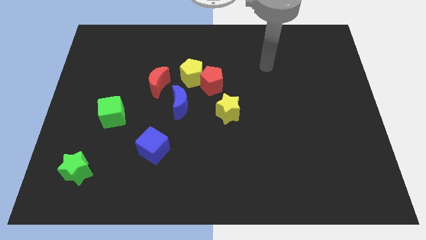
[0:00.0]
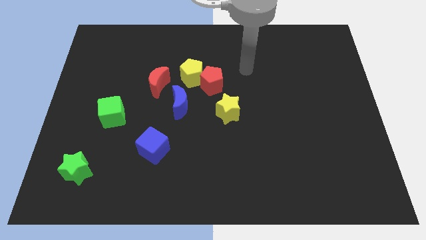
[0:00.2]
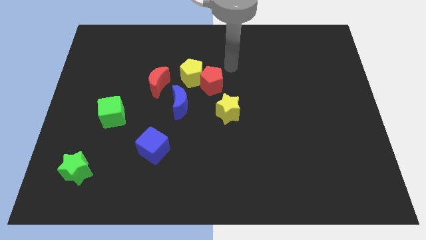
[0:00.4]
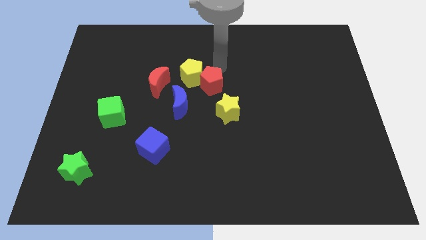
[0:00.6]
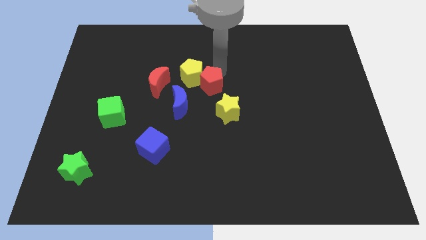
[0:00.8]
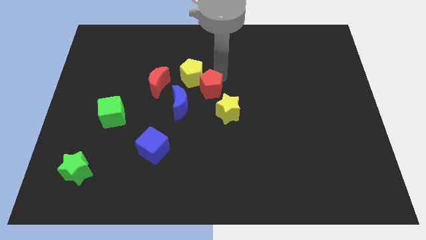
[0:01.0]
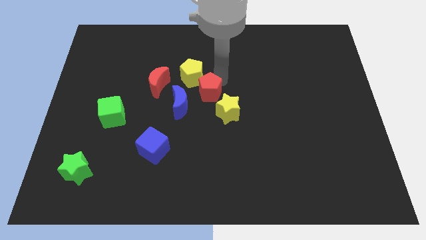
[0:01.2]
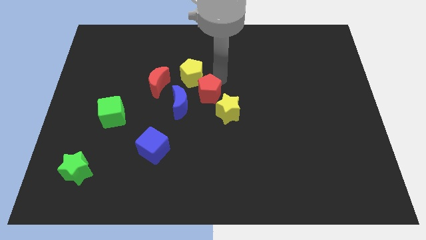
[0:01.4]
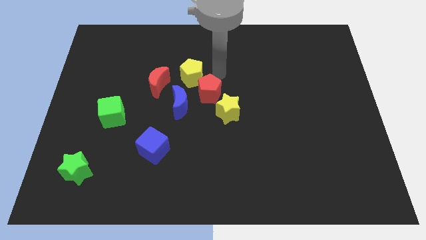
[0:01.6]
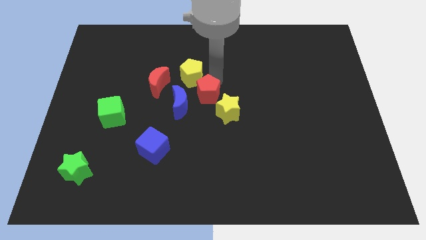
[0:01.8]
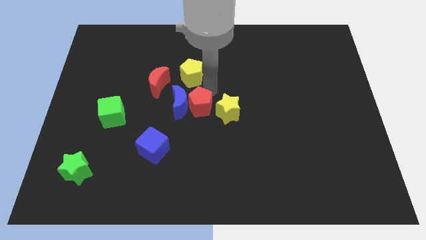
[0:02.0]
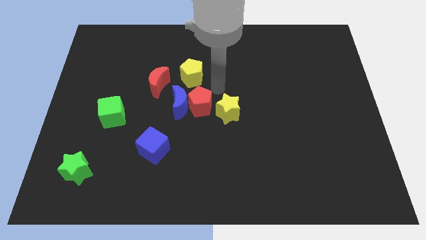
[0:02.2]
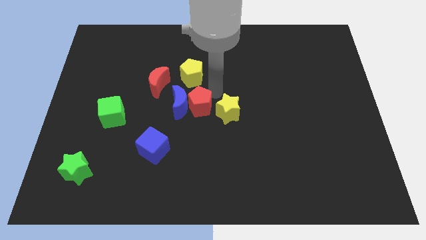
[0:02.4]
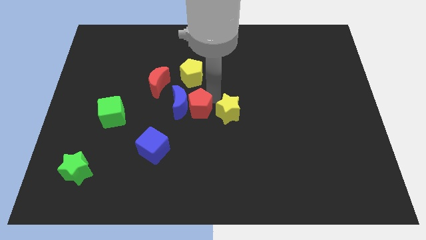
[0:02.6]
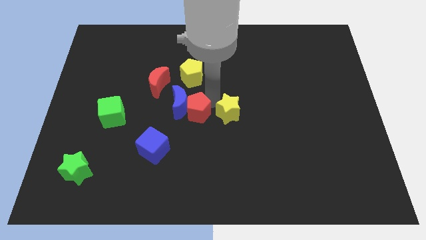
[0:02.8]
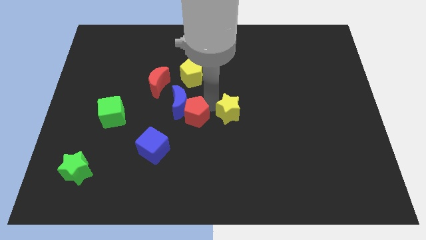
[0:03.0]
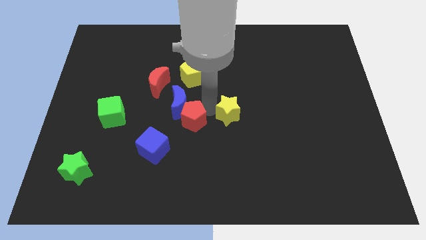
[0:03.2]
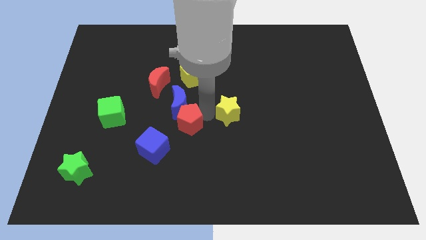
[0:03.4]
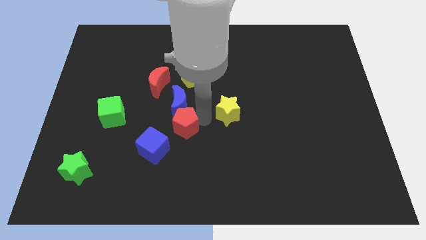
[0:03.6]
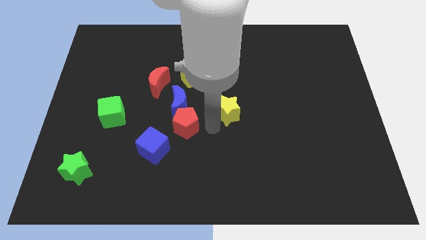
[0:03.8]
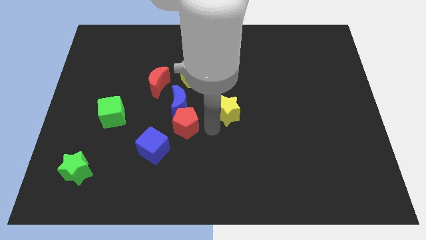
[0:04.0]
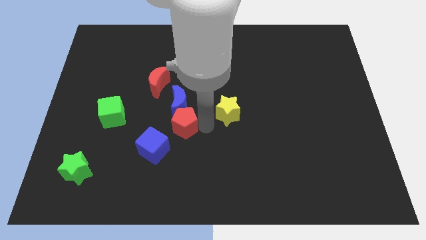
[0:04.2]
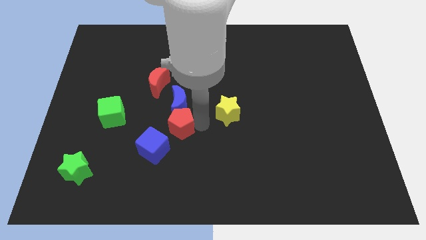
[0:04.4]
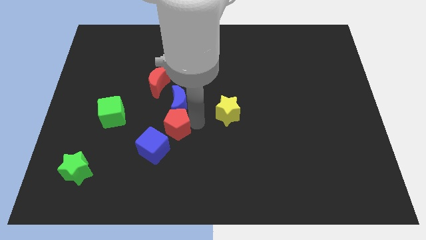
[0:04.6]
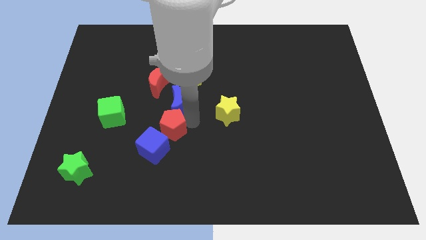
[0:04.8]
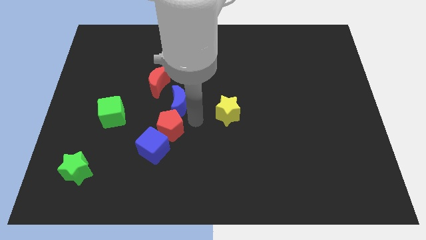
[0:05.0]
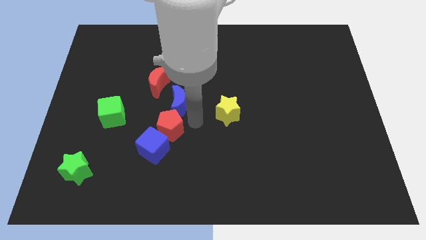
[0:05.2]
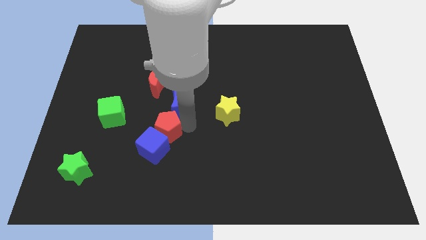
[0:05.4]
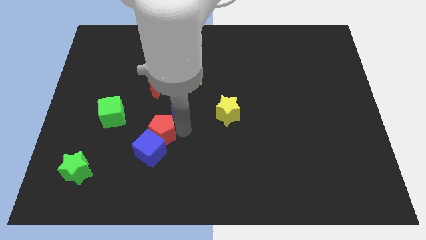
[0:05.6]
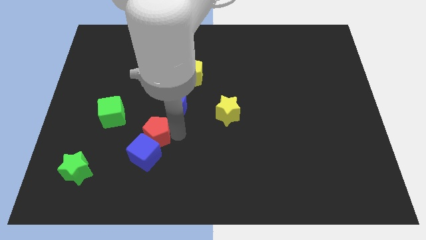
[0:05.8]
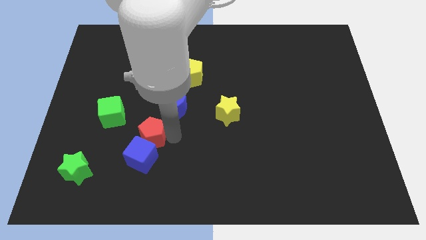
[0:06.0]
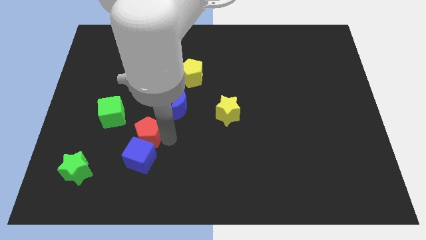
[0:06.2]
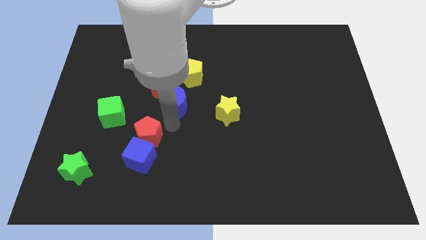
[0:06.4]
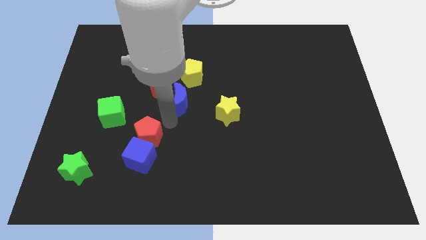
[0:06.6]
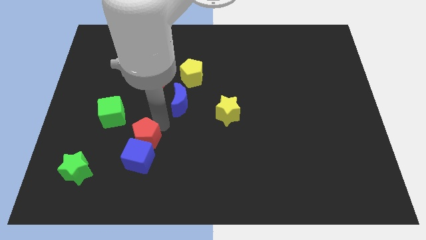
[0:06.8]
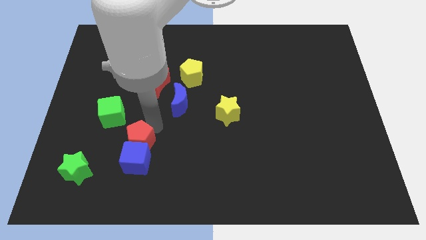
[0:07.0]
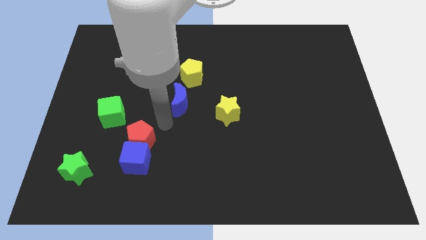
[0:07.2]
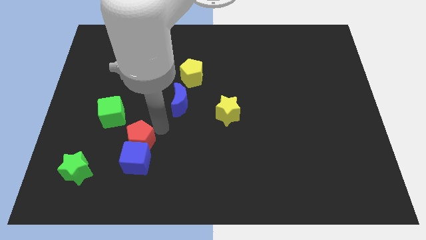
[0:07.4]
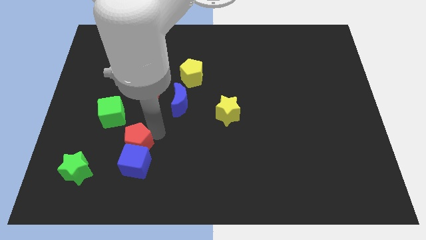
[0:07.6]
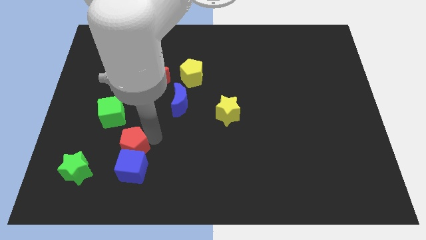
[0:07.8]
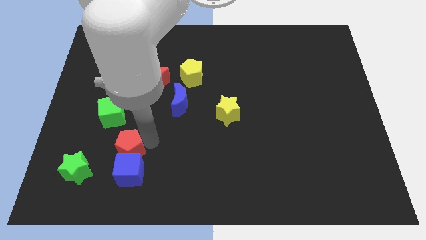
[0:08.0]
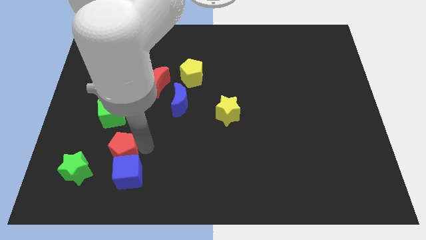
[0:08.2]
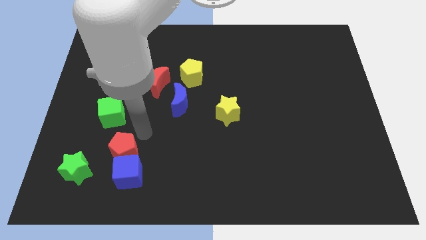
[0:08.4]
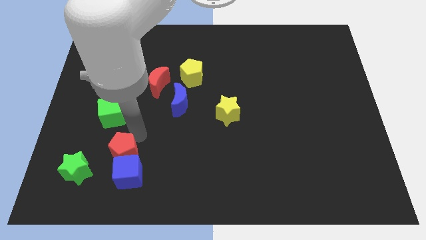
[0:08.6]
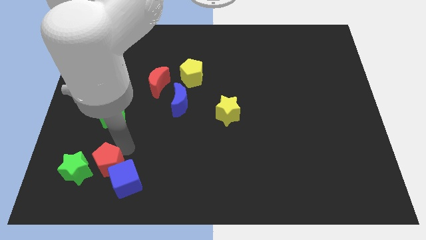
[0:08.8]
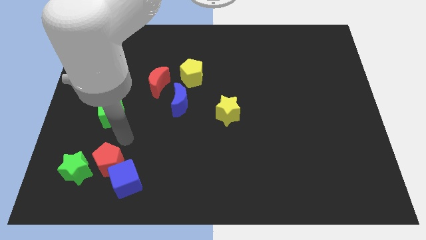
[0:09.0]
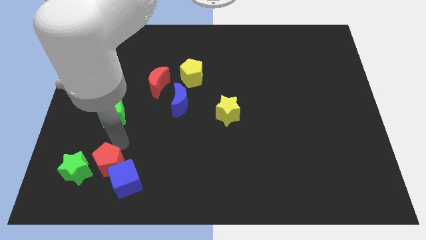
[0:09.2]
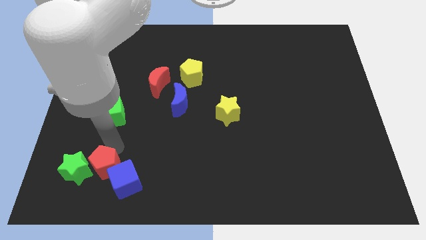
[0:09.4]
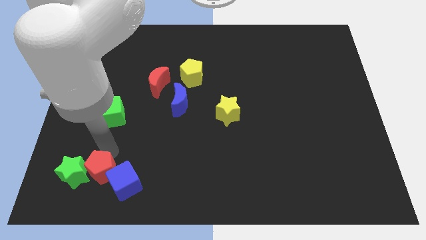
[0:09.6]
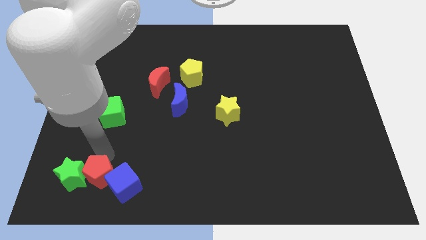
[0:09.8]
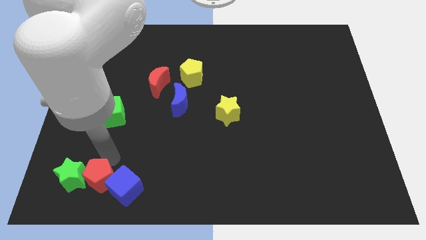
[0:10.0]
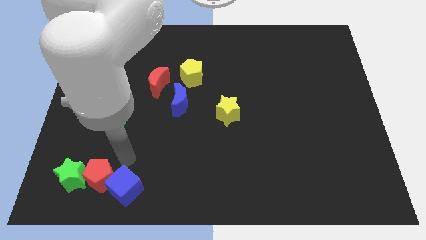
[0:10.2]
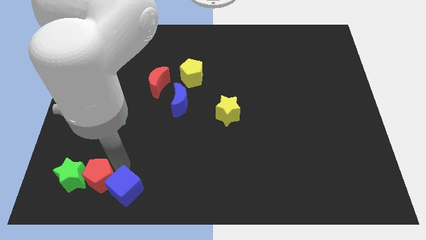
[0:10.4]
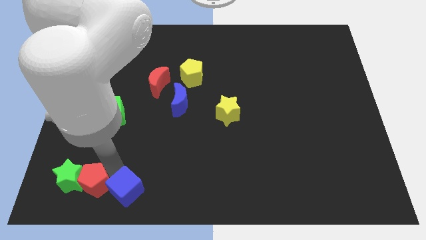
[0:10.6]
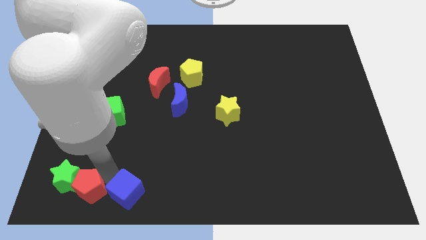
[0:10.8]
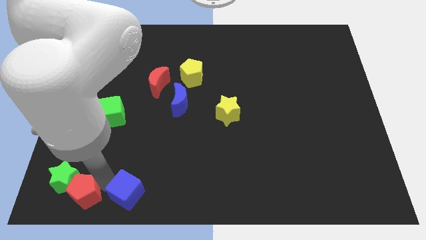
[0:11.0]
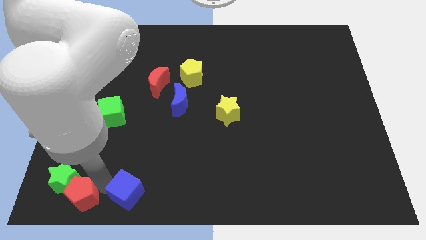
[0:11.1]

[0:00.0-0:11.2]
put the red pentagon to the bottom left
